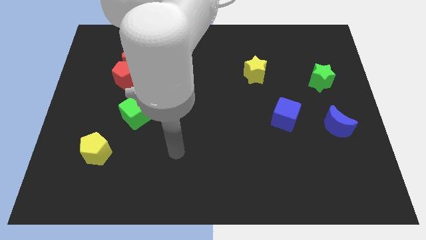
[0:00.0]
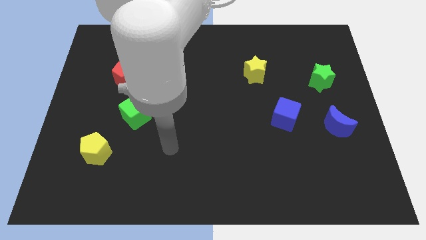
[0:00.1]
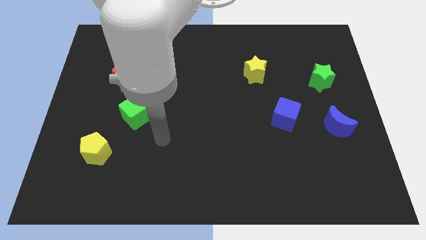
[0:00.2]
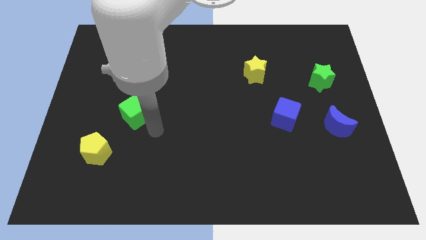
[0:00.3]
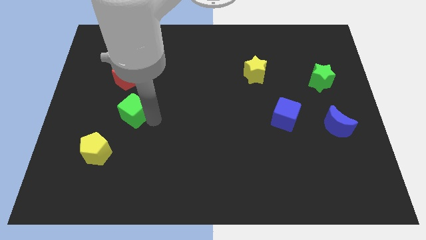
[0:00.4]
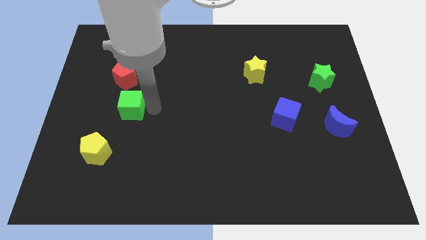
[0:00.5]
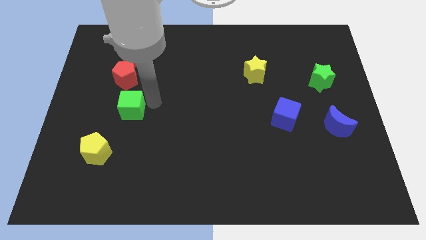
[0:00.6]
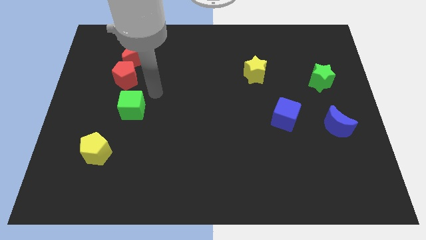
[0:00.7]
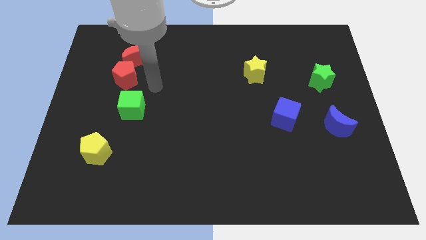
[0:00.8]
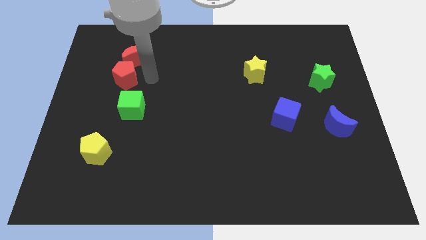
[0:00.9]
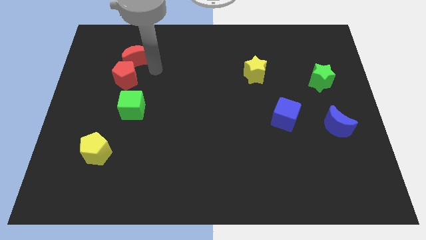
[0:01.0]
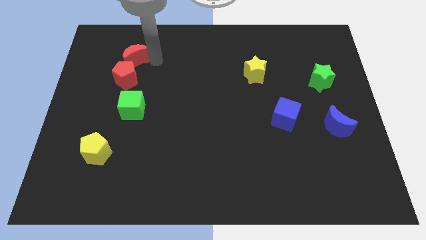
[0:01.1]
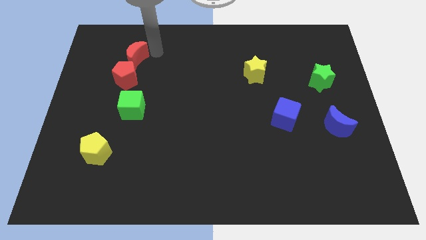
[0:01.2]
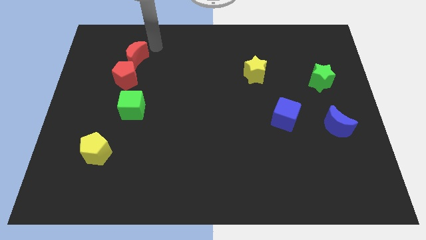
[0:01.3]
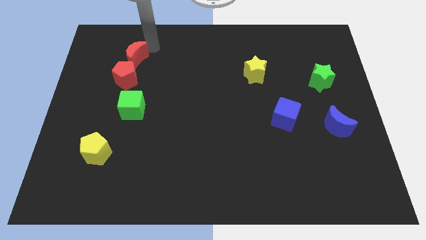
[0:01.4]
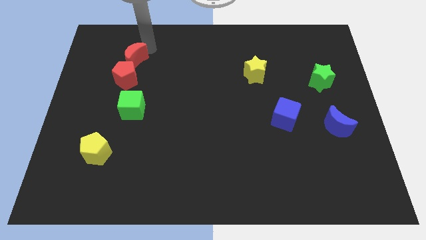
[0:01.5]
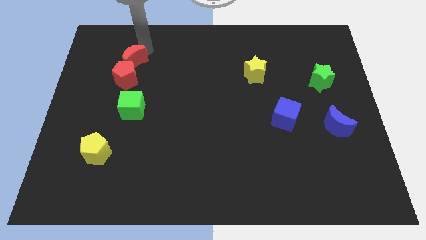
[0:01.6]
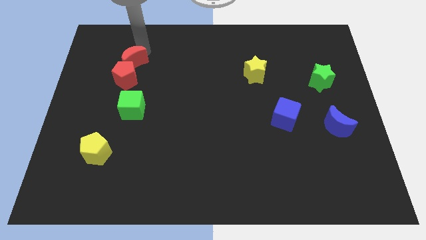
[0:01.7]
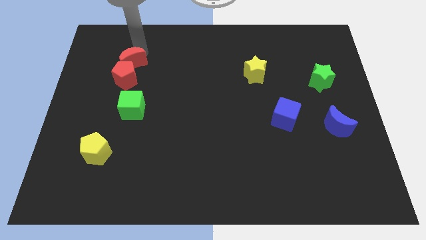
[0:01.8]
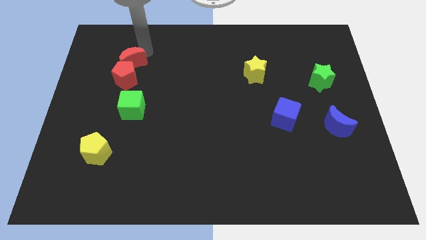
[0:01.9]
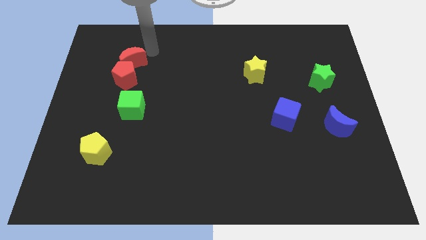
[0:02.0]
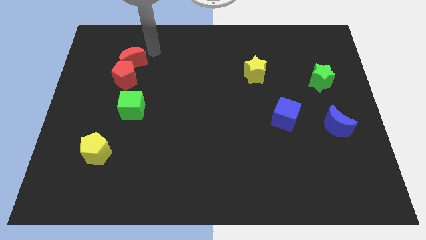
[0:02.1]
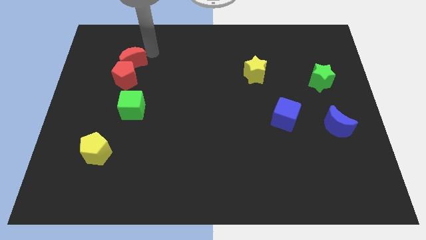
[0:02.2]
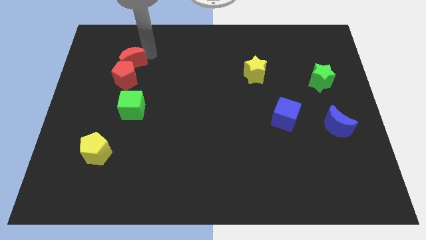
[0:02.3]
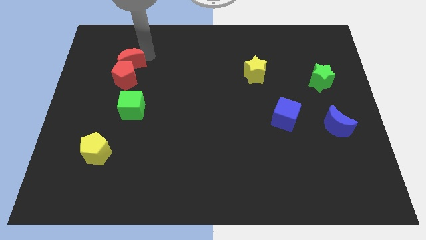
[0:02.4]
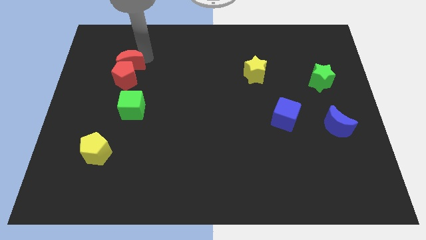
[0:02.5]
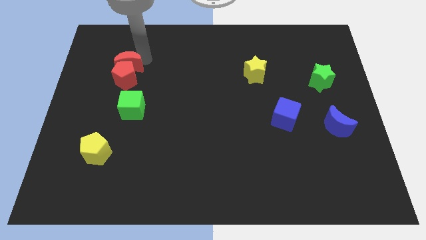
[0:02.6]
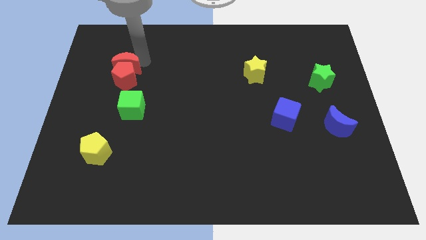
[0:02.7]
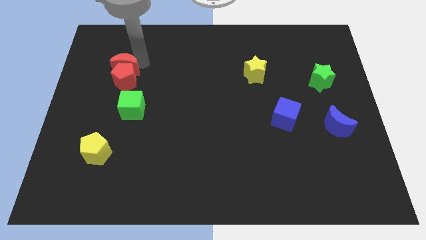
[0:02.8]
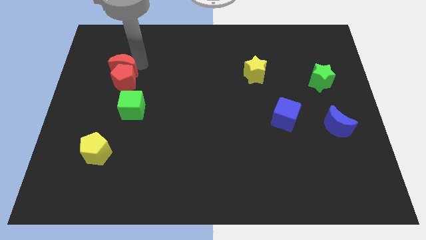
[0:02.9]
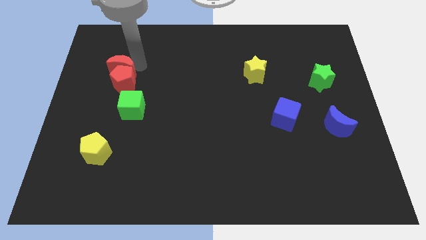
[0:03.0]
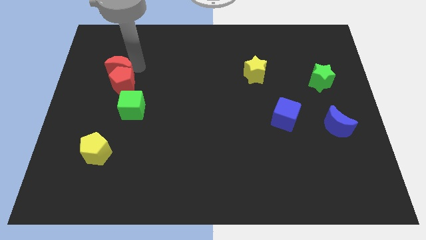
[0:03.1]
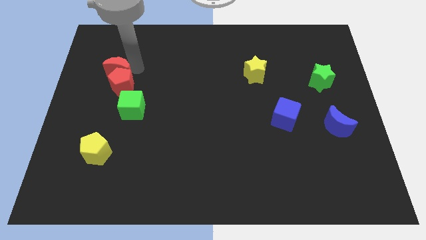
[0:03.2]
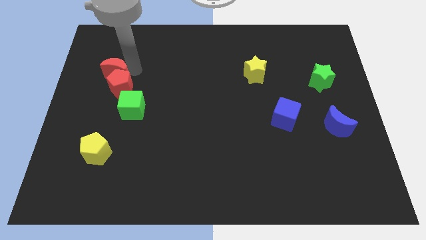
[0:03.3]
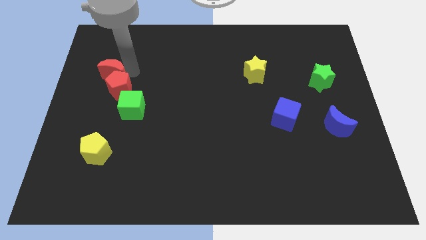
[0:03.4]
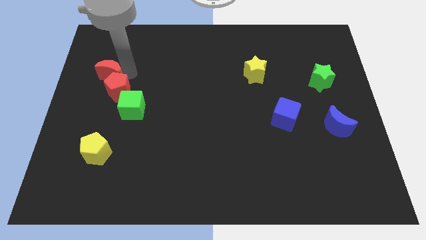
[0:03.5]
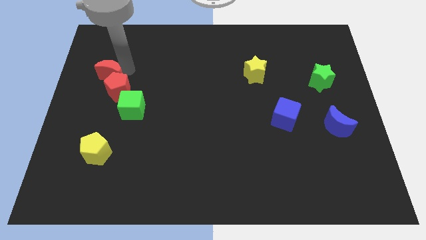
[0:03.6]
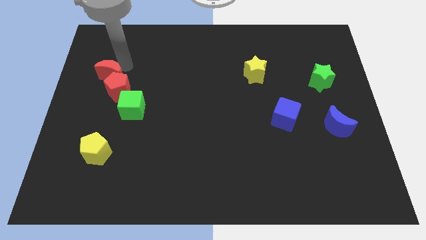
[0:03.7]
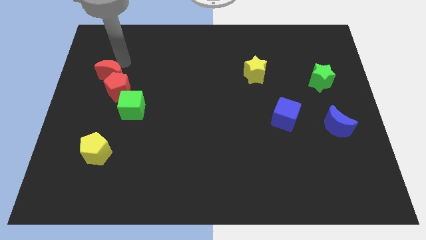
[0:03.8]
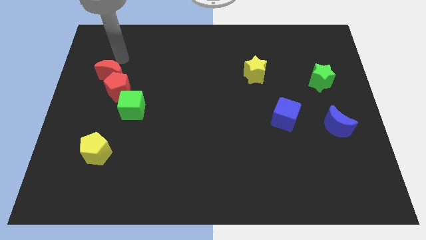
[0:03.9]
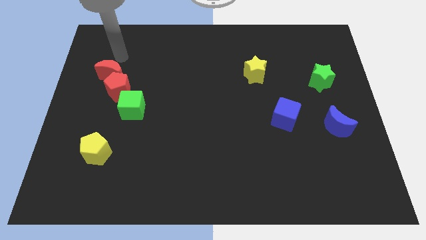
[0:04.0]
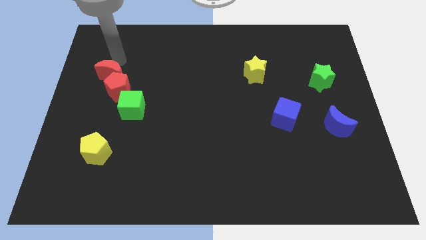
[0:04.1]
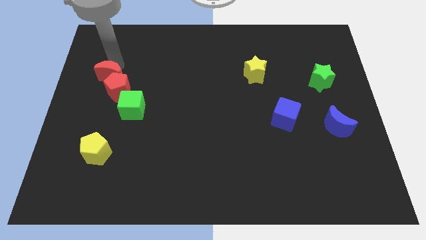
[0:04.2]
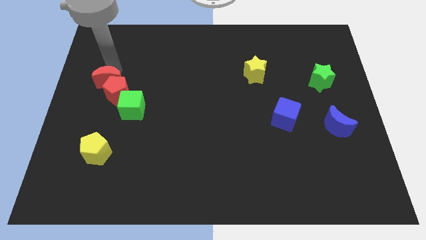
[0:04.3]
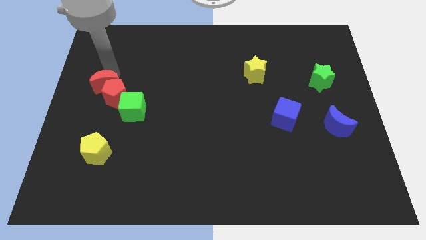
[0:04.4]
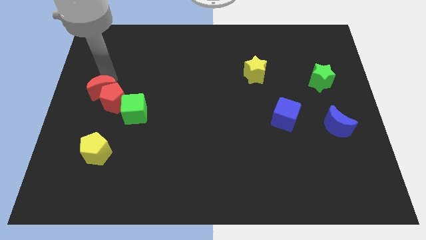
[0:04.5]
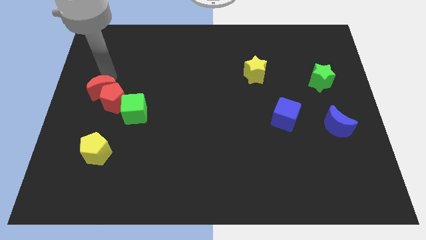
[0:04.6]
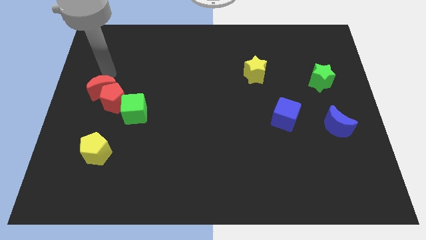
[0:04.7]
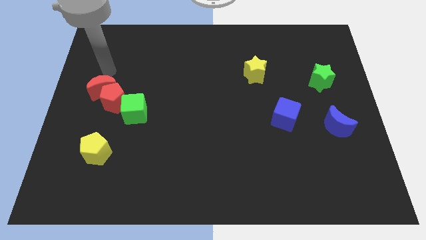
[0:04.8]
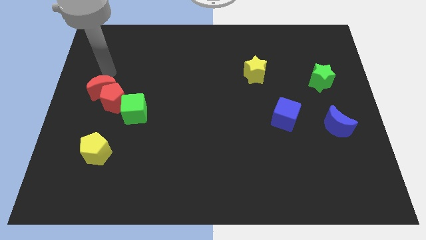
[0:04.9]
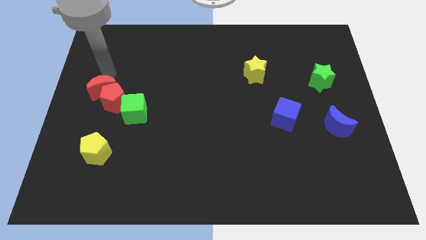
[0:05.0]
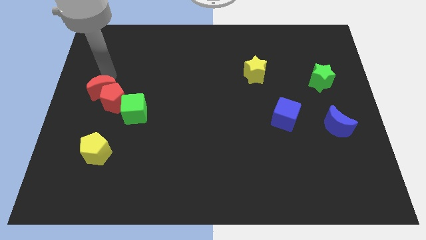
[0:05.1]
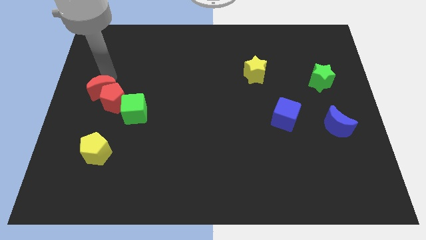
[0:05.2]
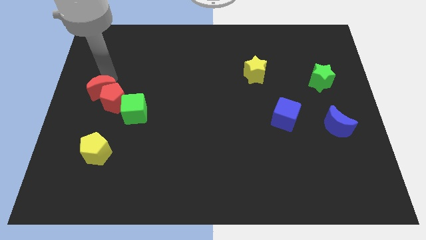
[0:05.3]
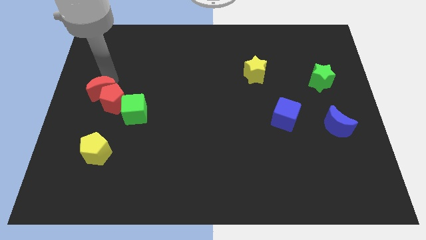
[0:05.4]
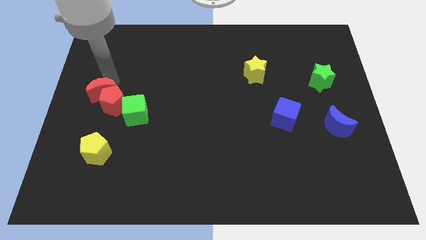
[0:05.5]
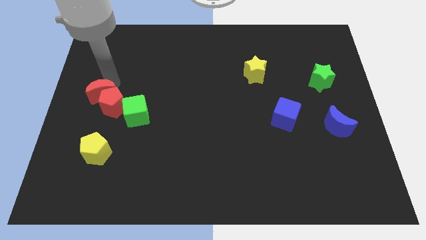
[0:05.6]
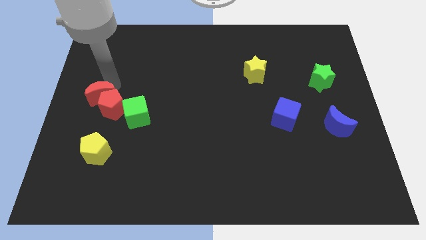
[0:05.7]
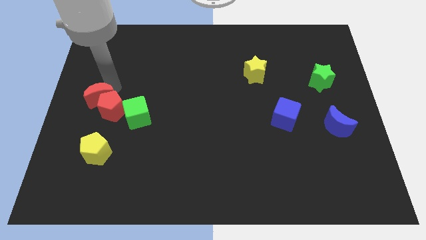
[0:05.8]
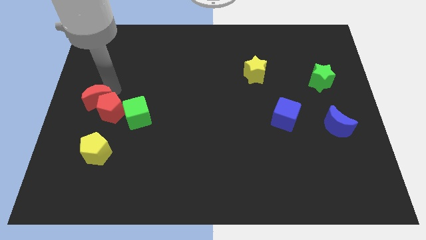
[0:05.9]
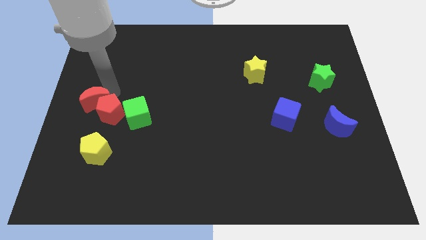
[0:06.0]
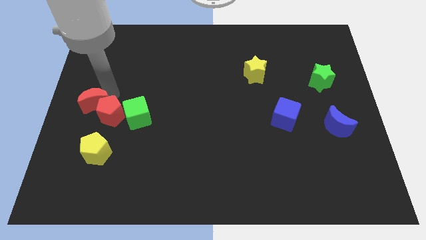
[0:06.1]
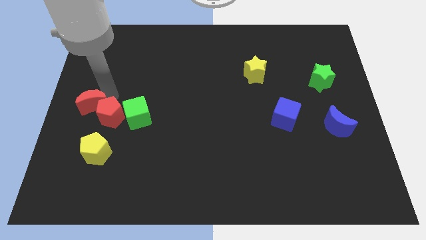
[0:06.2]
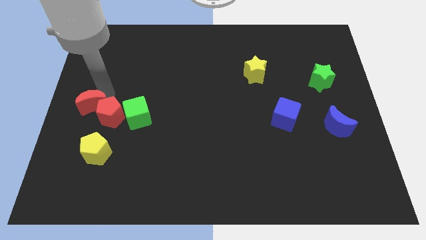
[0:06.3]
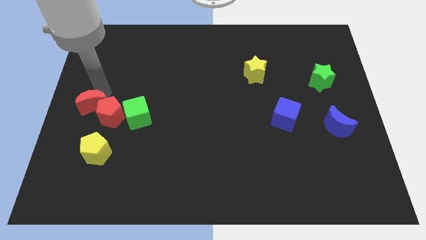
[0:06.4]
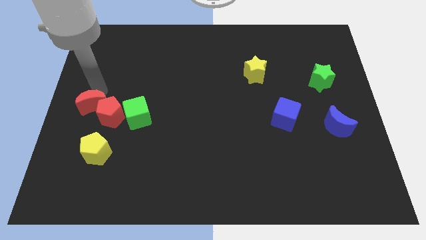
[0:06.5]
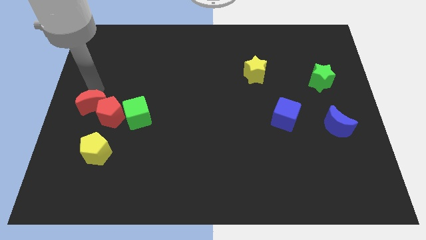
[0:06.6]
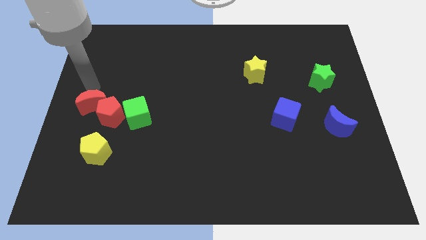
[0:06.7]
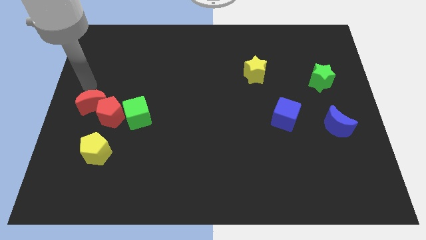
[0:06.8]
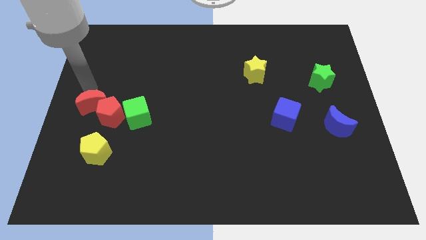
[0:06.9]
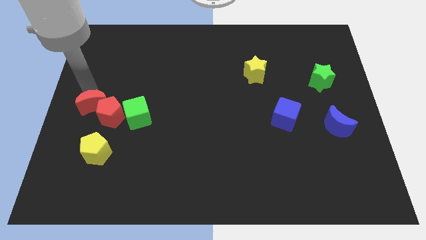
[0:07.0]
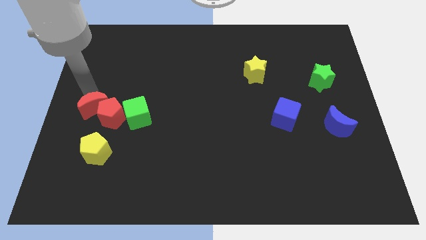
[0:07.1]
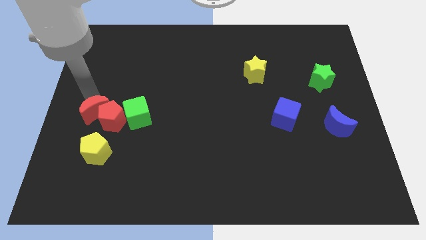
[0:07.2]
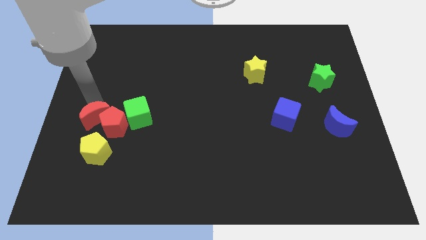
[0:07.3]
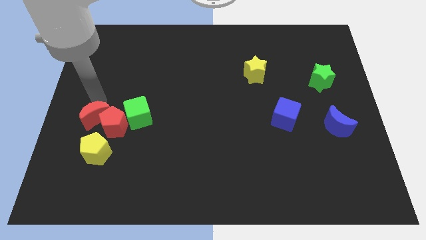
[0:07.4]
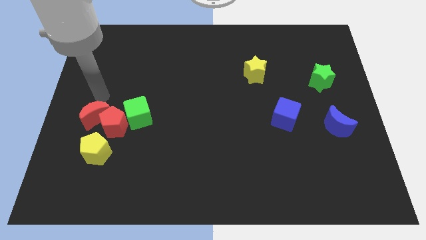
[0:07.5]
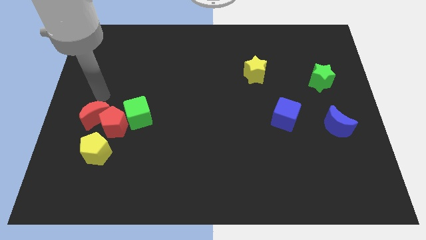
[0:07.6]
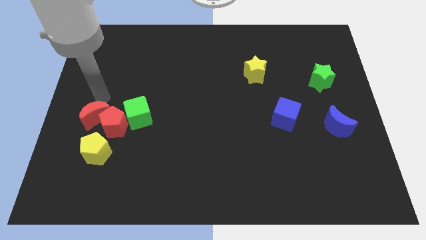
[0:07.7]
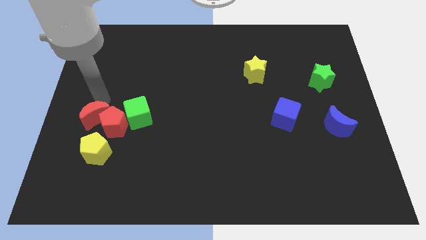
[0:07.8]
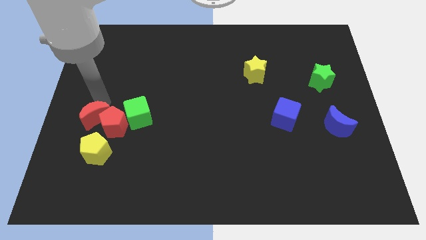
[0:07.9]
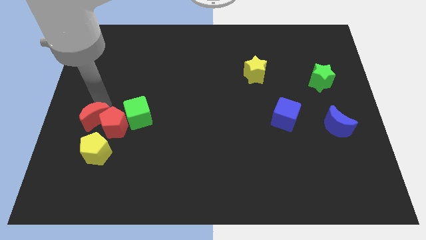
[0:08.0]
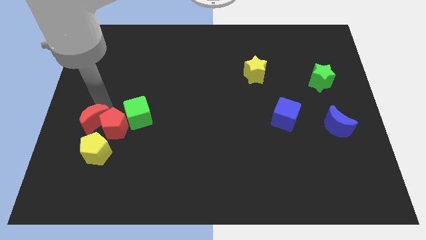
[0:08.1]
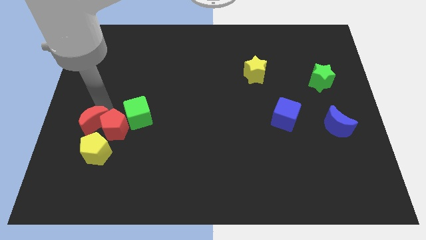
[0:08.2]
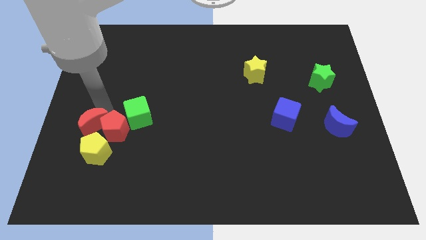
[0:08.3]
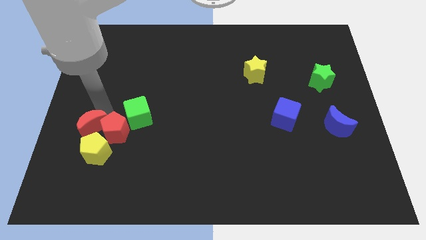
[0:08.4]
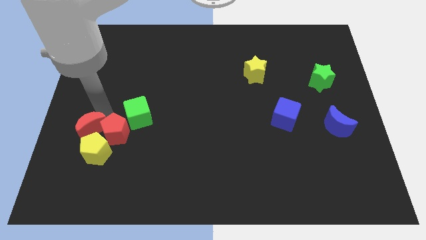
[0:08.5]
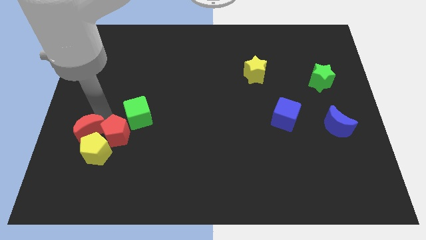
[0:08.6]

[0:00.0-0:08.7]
move the red moon to the yellow pentagon
